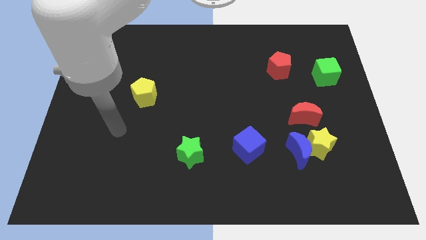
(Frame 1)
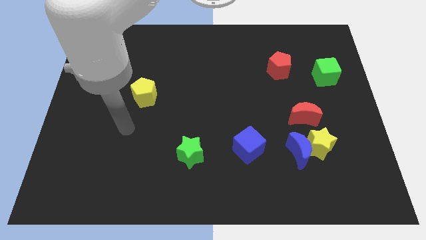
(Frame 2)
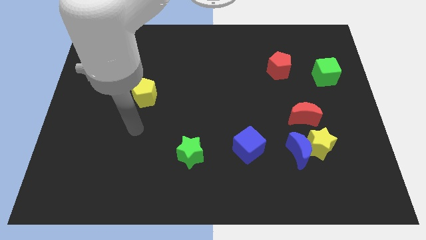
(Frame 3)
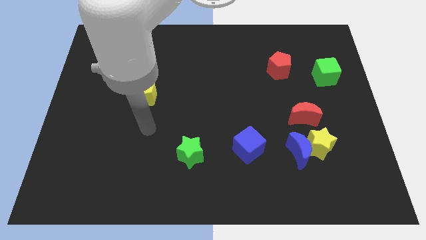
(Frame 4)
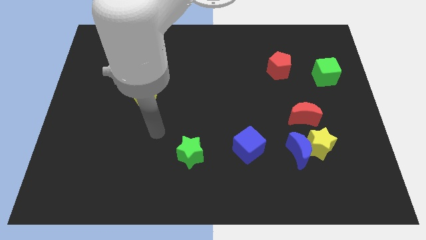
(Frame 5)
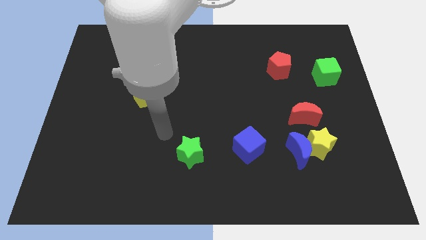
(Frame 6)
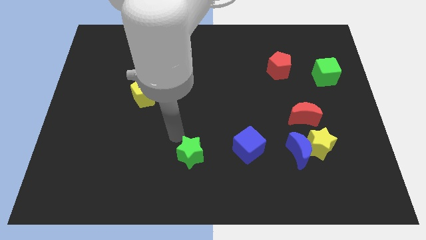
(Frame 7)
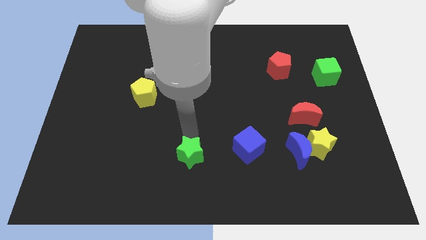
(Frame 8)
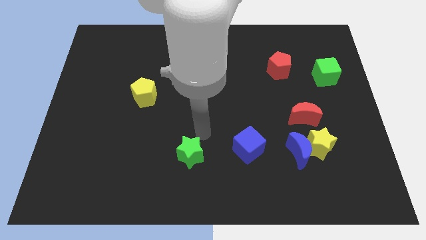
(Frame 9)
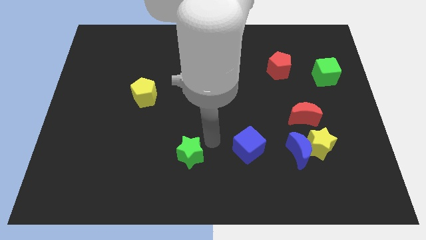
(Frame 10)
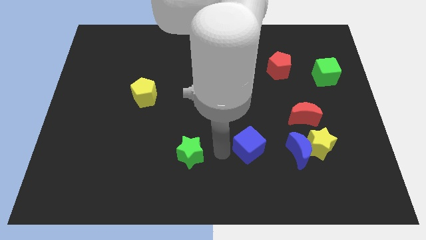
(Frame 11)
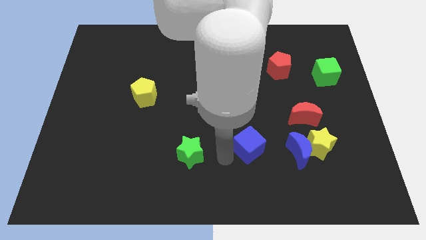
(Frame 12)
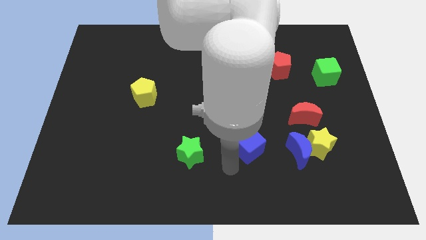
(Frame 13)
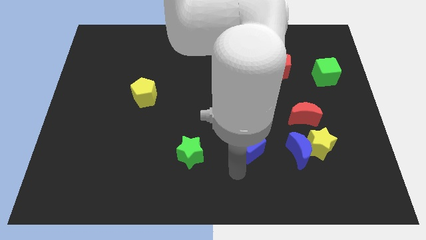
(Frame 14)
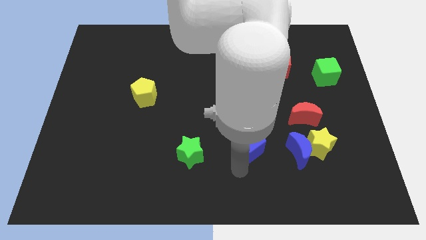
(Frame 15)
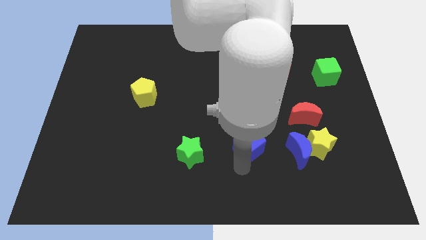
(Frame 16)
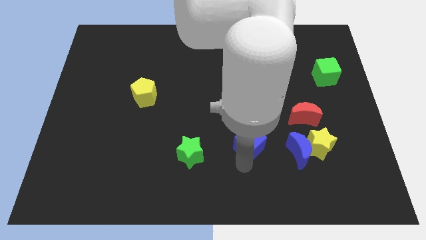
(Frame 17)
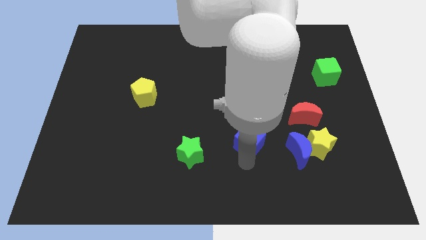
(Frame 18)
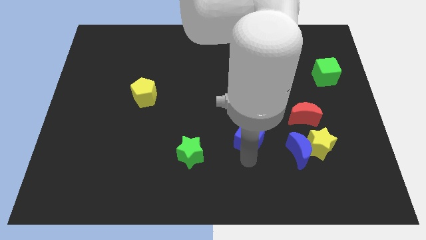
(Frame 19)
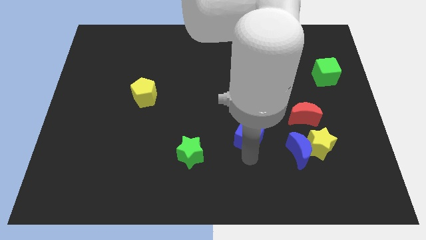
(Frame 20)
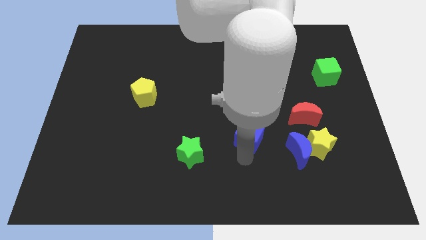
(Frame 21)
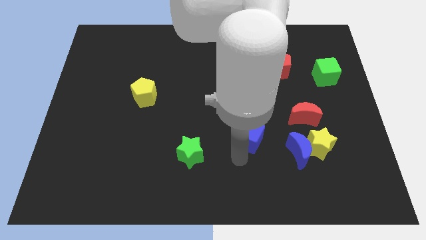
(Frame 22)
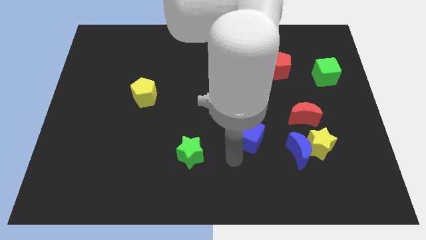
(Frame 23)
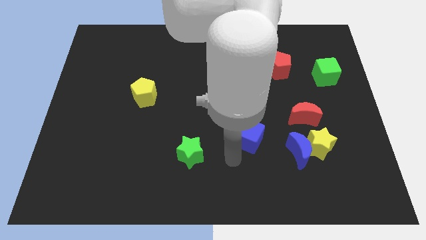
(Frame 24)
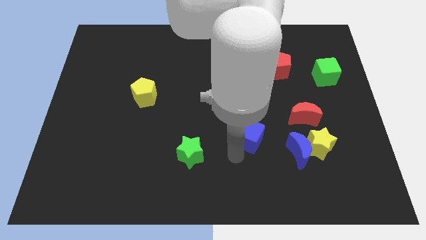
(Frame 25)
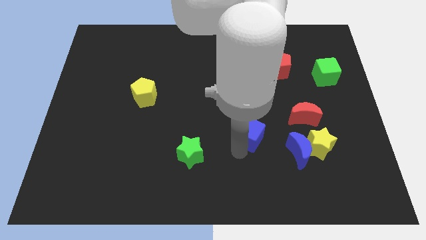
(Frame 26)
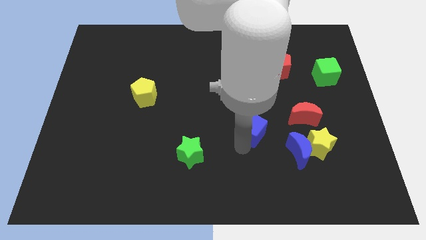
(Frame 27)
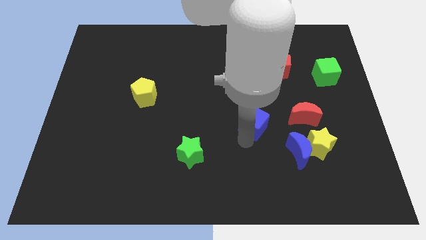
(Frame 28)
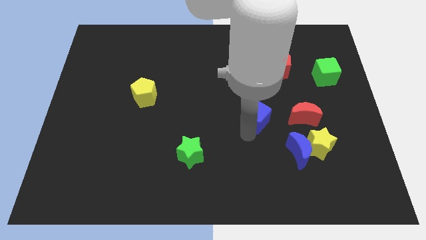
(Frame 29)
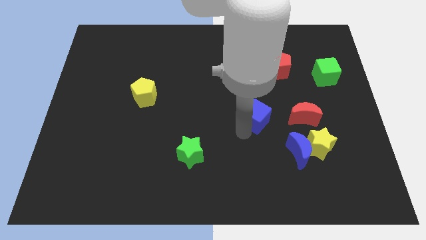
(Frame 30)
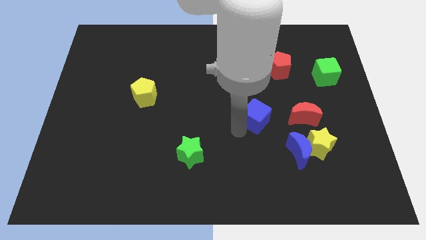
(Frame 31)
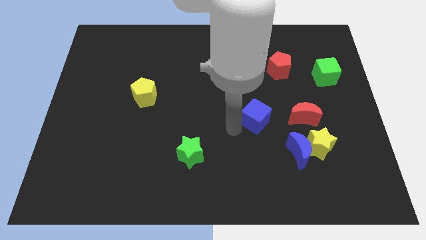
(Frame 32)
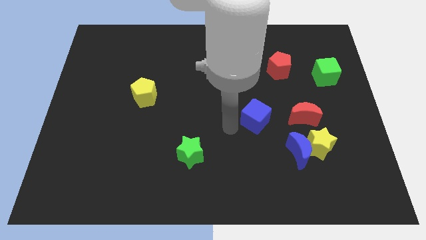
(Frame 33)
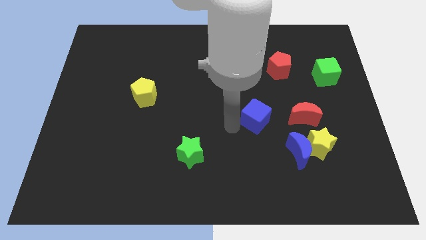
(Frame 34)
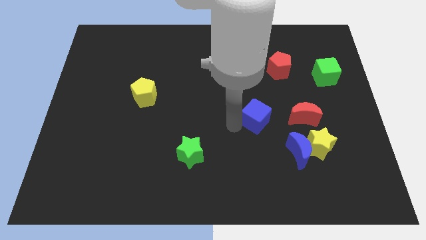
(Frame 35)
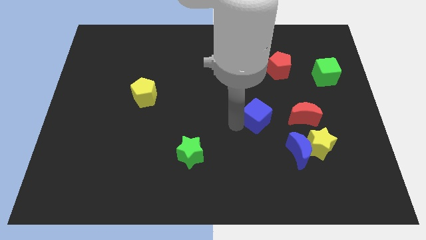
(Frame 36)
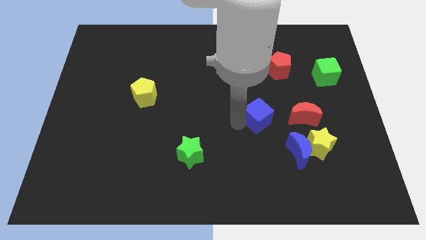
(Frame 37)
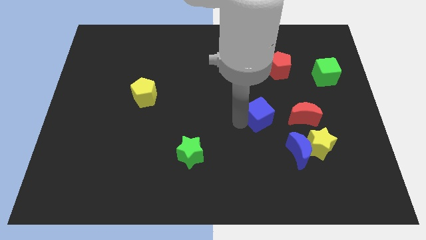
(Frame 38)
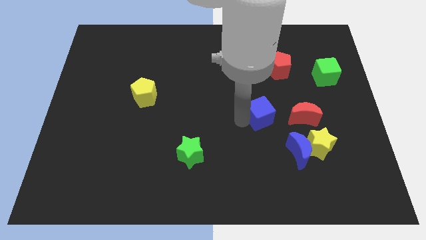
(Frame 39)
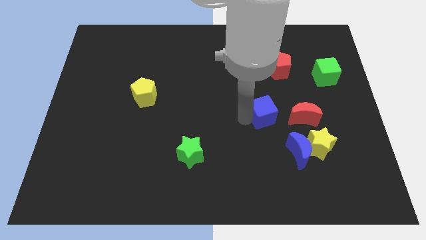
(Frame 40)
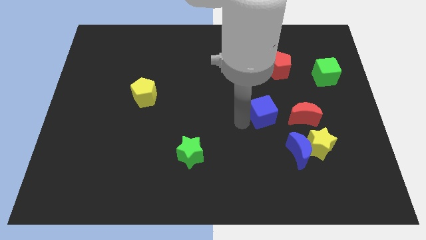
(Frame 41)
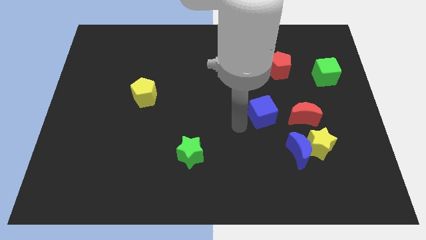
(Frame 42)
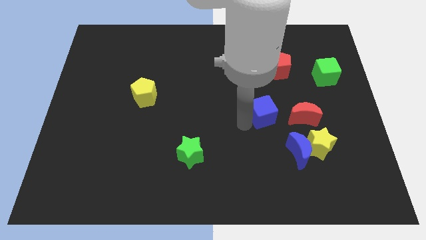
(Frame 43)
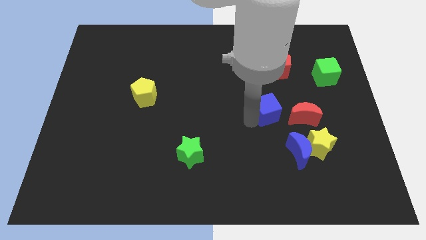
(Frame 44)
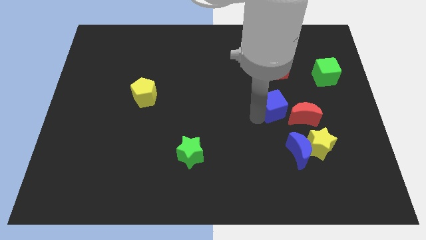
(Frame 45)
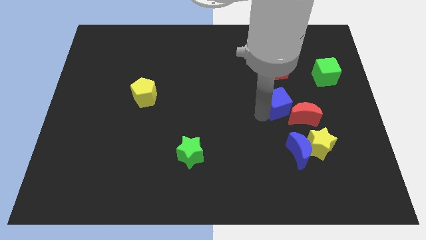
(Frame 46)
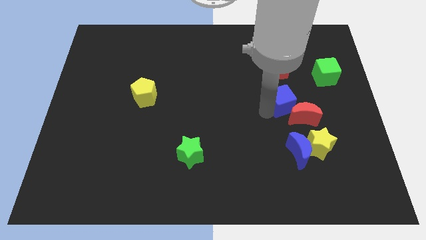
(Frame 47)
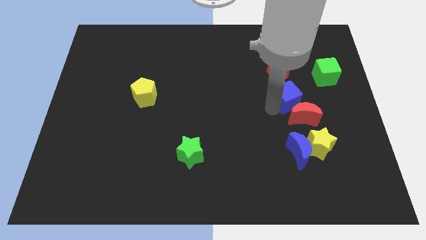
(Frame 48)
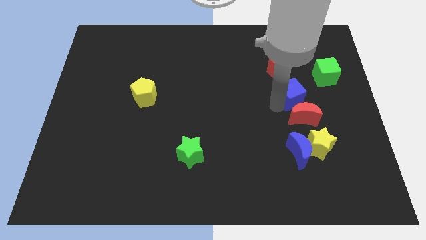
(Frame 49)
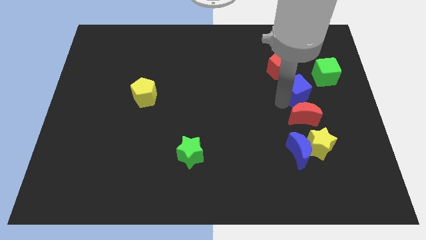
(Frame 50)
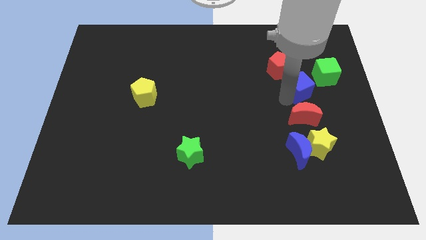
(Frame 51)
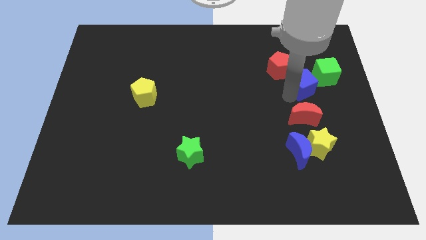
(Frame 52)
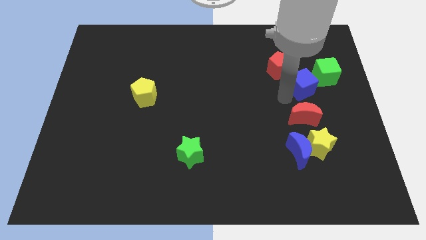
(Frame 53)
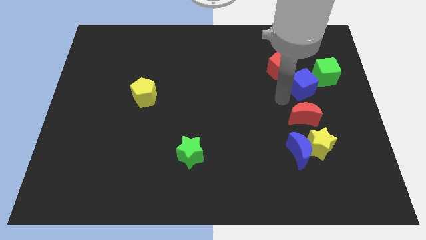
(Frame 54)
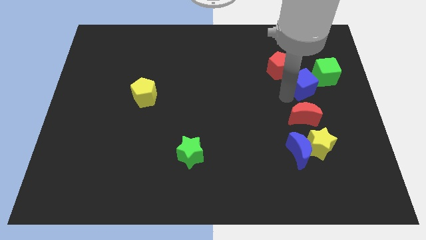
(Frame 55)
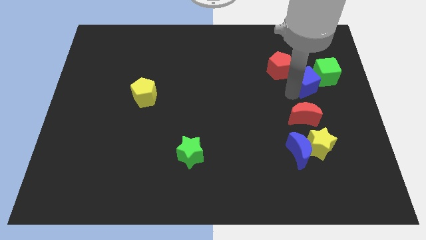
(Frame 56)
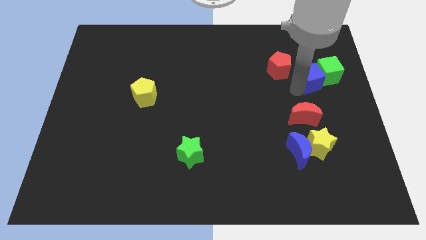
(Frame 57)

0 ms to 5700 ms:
move the blue cube next to the green cube

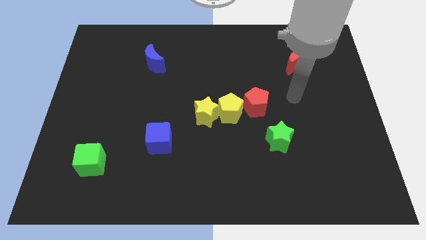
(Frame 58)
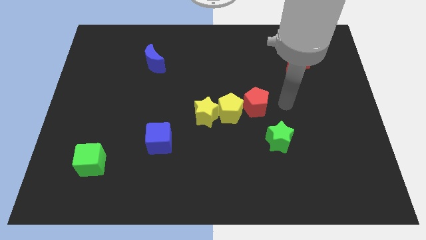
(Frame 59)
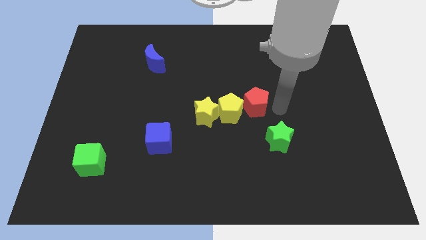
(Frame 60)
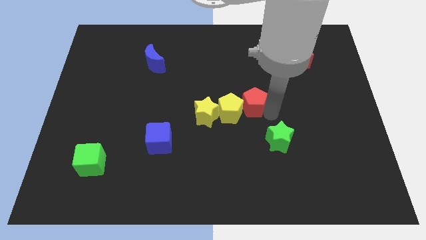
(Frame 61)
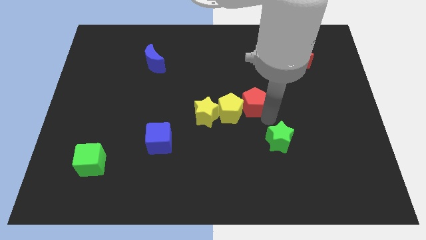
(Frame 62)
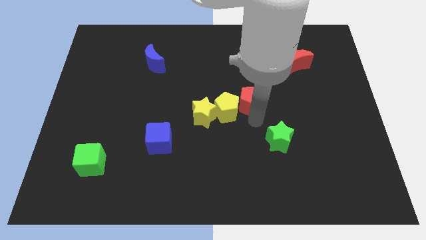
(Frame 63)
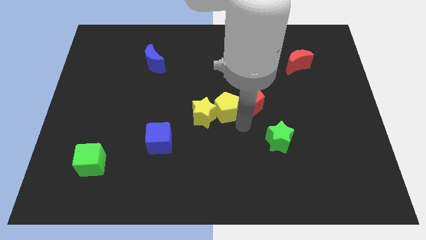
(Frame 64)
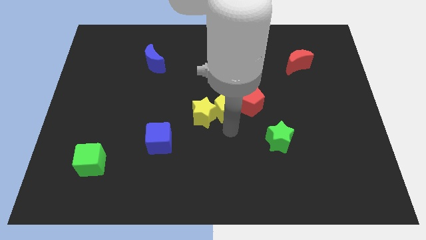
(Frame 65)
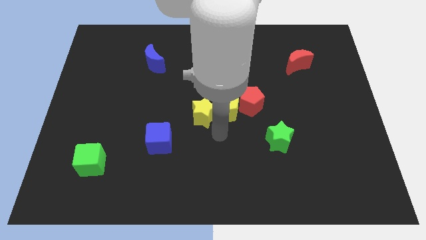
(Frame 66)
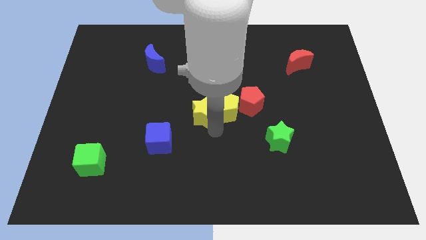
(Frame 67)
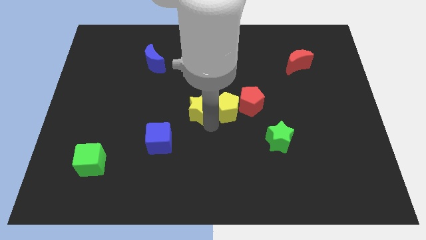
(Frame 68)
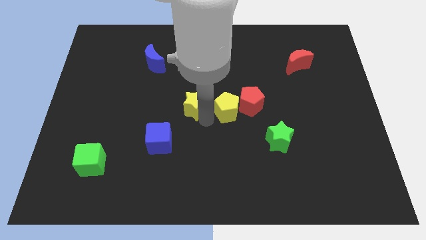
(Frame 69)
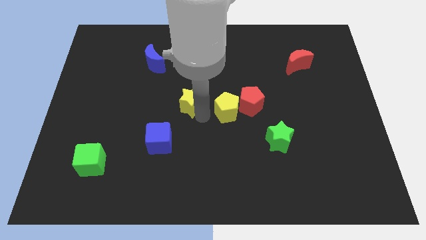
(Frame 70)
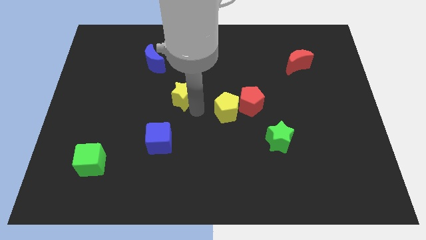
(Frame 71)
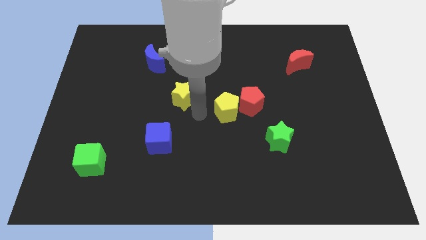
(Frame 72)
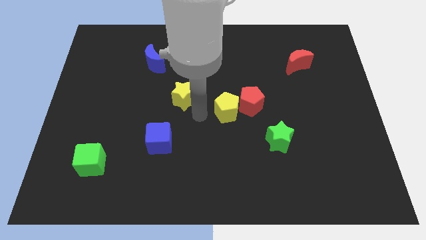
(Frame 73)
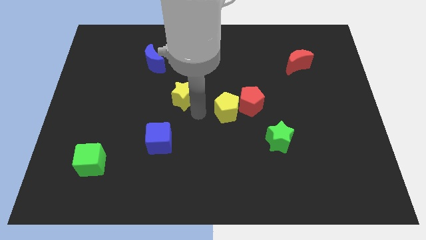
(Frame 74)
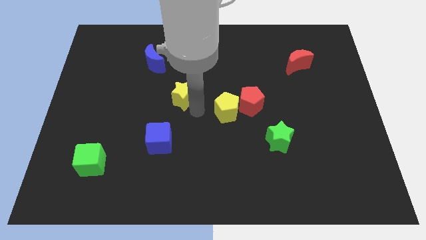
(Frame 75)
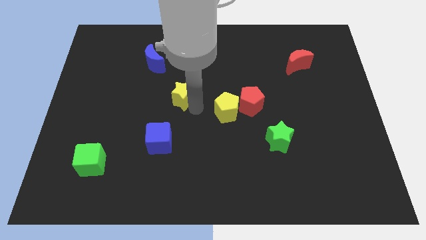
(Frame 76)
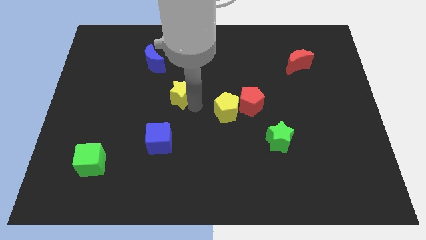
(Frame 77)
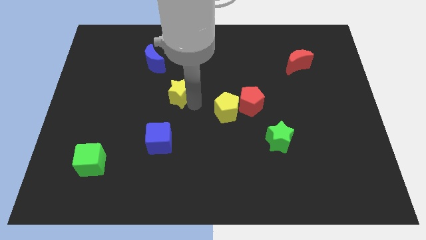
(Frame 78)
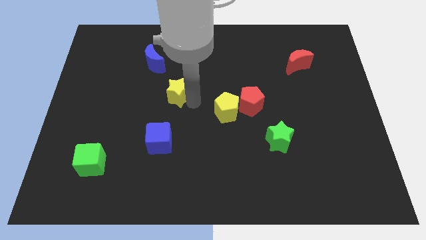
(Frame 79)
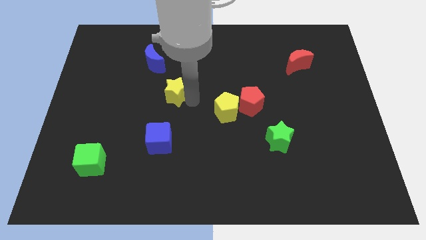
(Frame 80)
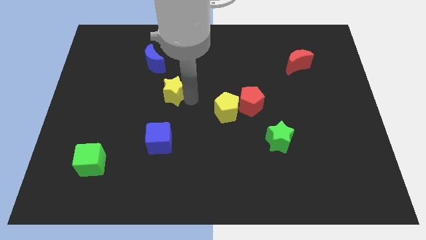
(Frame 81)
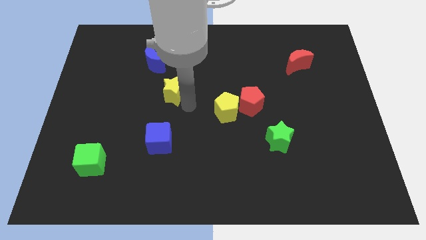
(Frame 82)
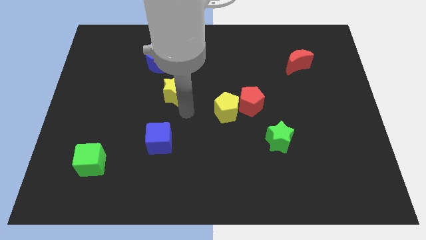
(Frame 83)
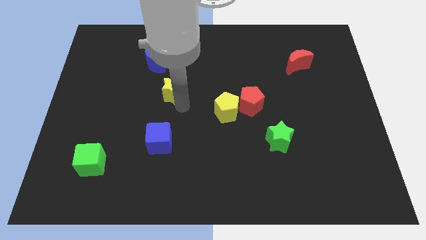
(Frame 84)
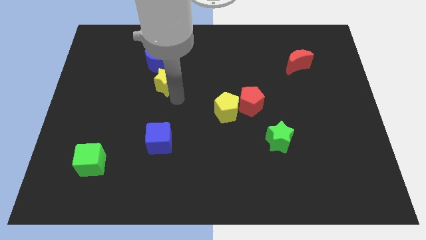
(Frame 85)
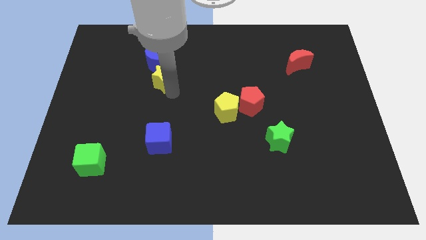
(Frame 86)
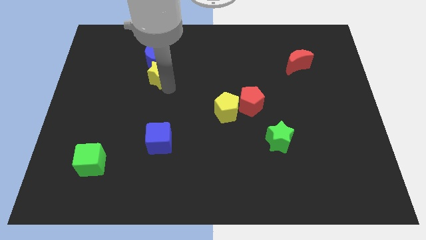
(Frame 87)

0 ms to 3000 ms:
put the yellow star towards the blue moon
